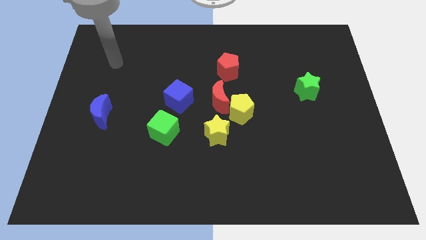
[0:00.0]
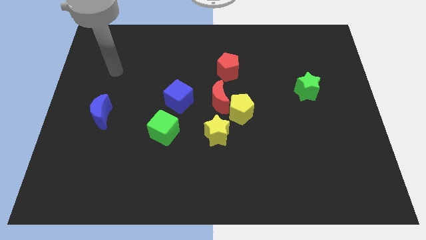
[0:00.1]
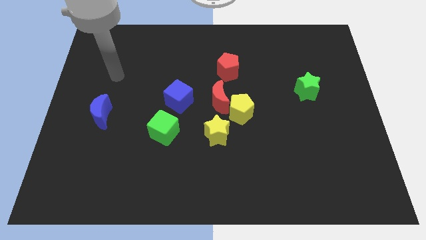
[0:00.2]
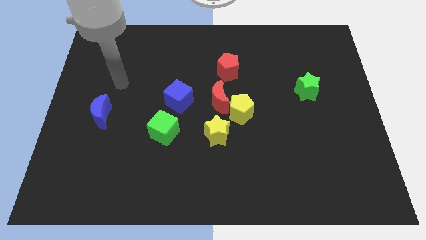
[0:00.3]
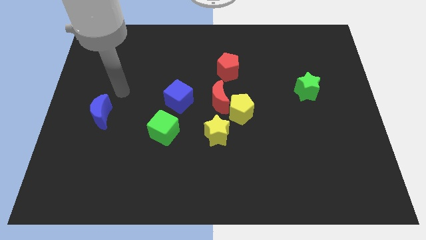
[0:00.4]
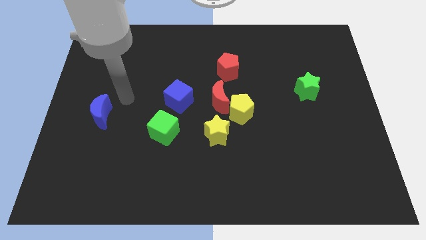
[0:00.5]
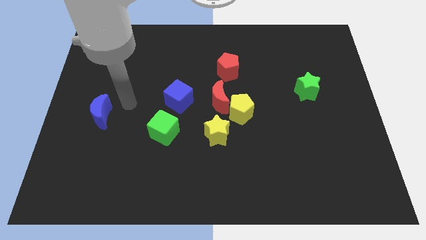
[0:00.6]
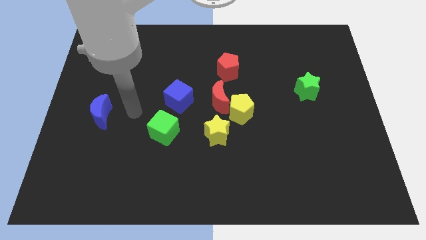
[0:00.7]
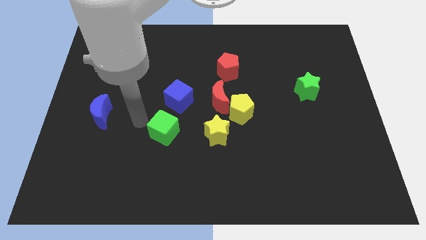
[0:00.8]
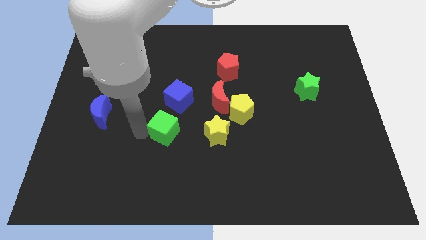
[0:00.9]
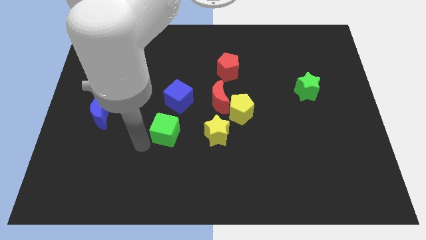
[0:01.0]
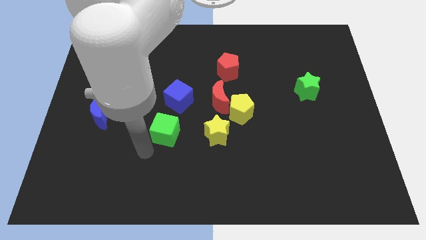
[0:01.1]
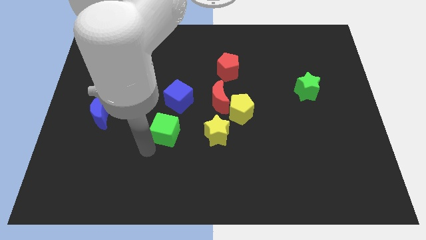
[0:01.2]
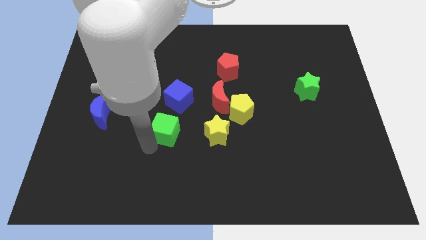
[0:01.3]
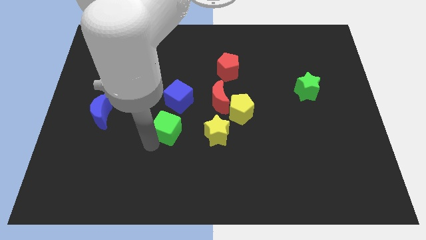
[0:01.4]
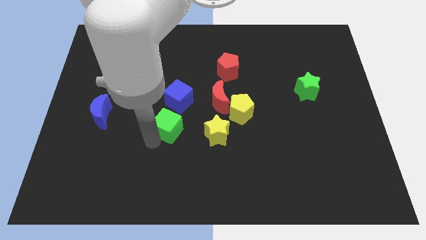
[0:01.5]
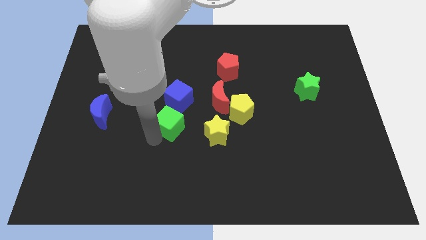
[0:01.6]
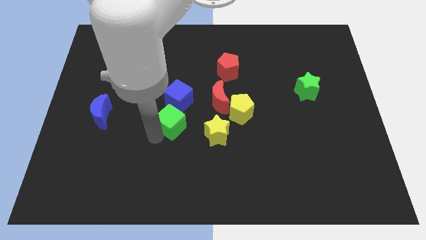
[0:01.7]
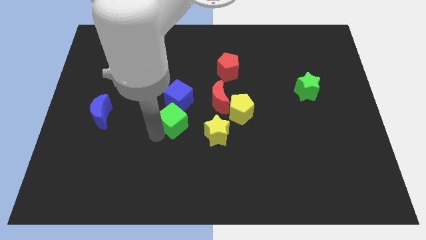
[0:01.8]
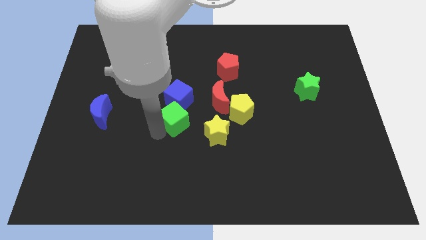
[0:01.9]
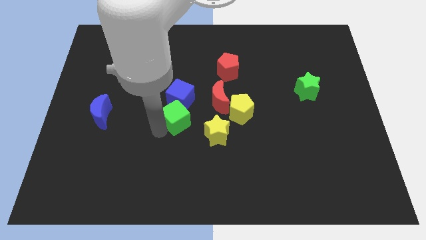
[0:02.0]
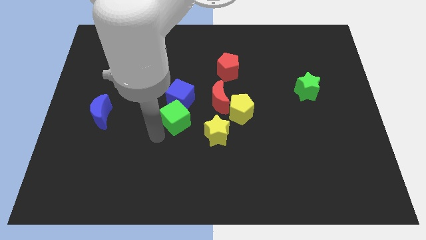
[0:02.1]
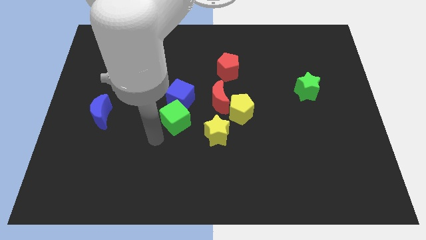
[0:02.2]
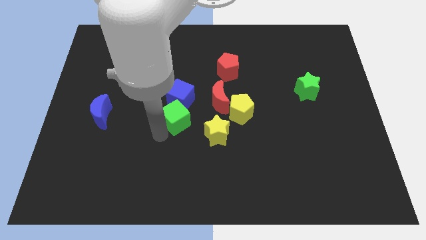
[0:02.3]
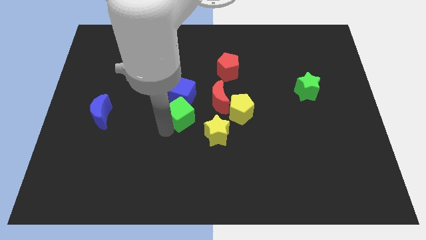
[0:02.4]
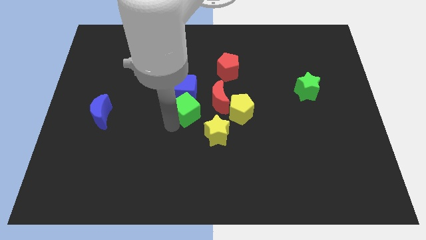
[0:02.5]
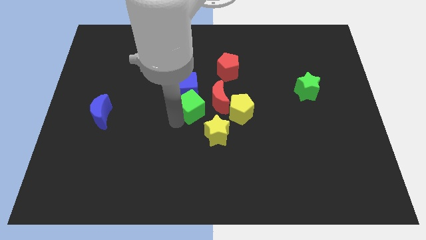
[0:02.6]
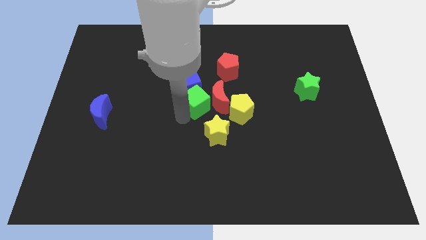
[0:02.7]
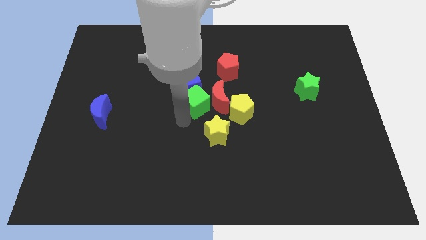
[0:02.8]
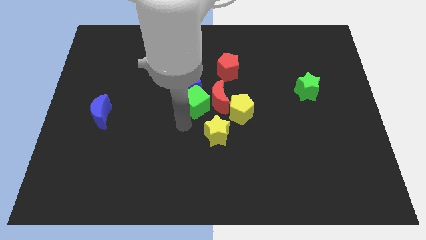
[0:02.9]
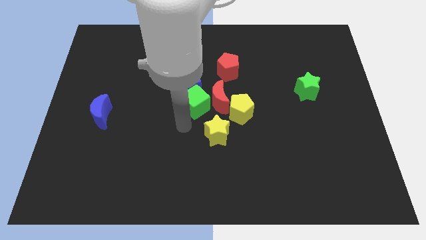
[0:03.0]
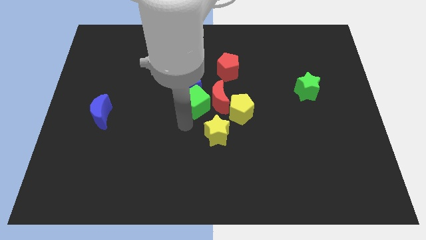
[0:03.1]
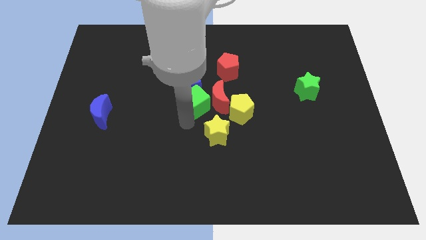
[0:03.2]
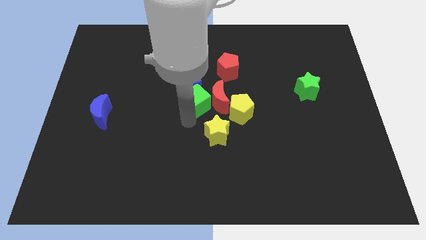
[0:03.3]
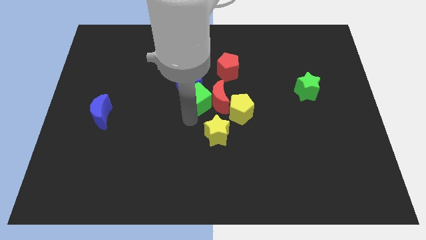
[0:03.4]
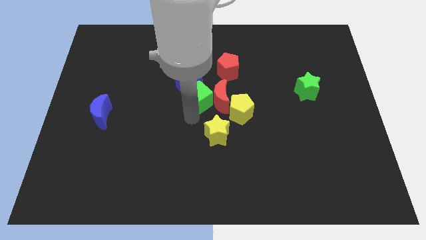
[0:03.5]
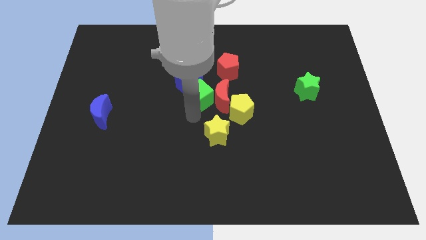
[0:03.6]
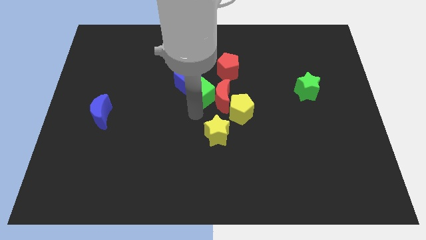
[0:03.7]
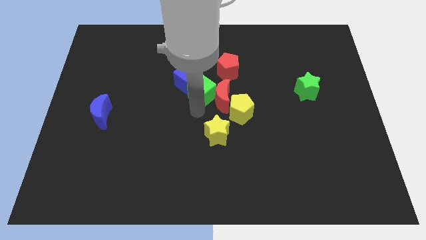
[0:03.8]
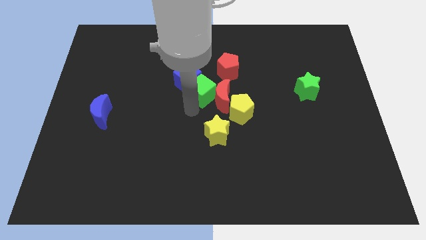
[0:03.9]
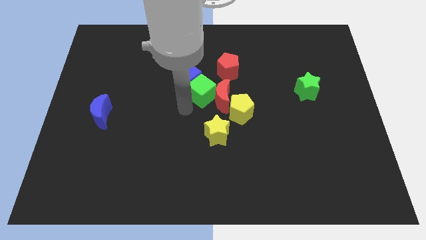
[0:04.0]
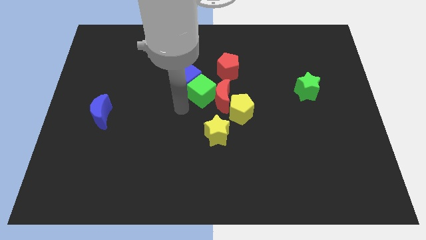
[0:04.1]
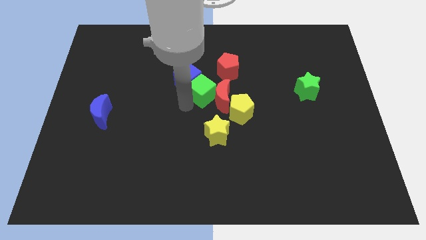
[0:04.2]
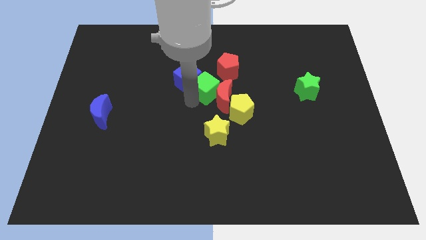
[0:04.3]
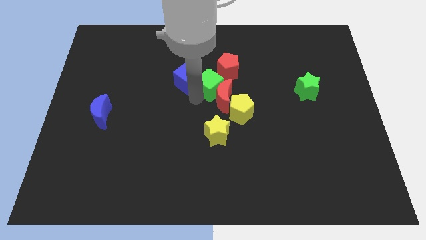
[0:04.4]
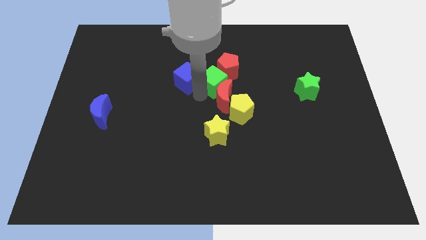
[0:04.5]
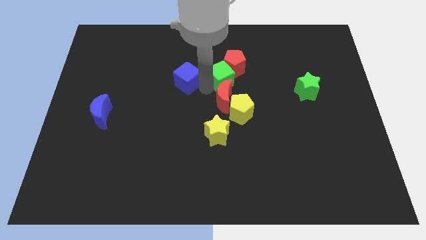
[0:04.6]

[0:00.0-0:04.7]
move the green cube upwards and to the right

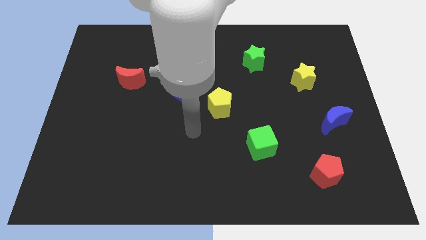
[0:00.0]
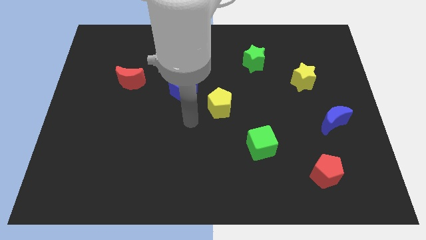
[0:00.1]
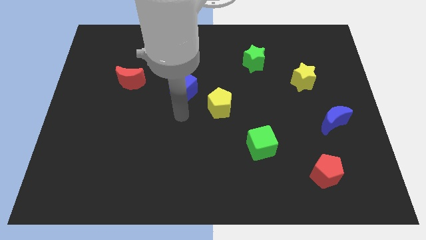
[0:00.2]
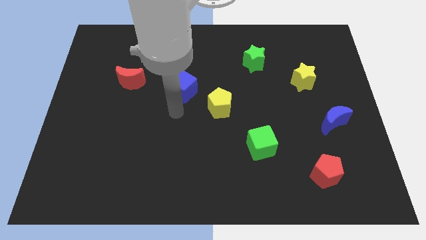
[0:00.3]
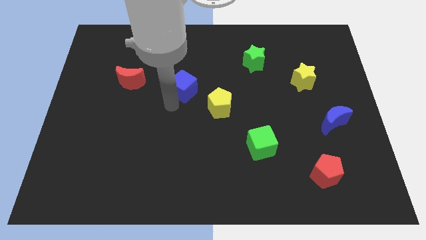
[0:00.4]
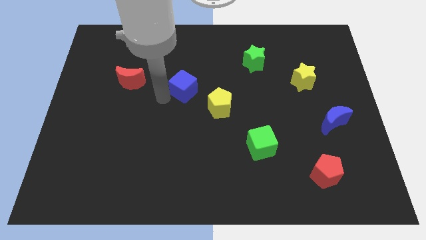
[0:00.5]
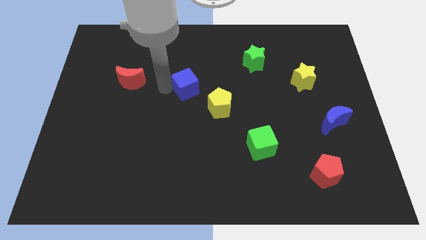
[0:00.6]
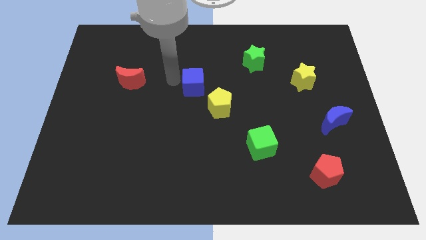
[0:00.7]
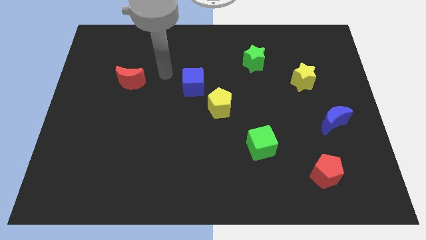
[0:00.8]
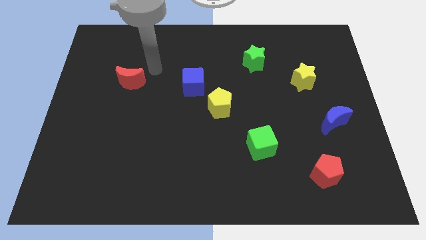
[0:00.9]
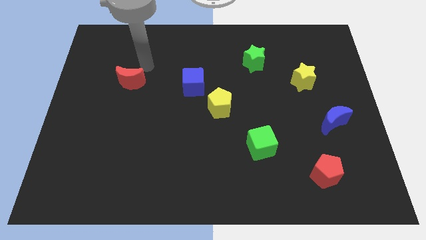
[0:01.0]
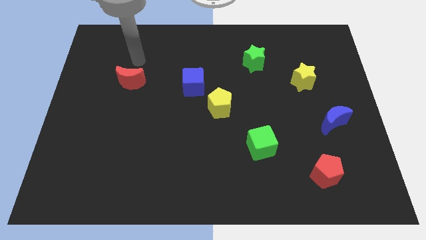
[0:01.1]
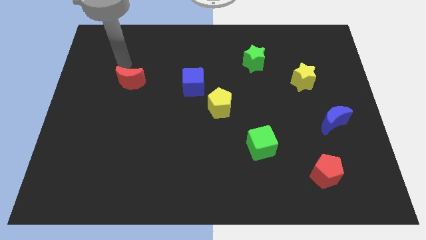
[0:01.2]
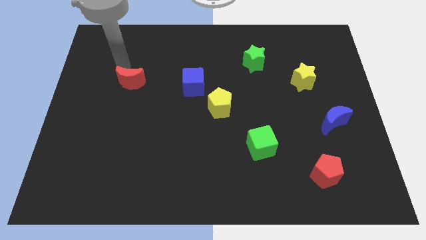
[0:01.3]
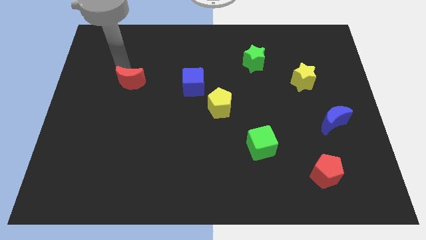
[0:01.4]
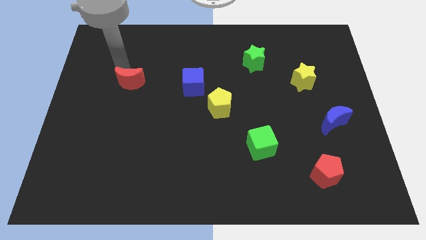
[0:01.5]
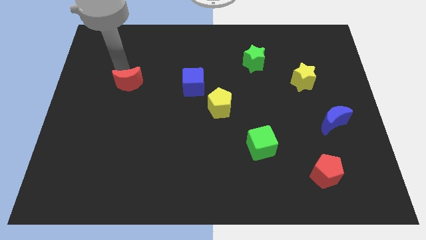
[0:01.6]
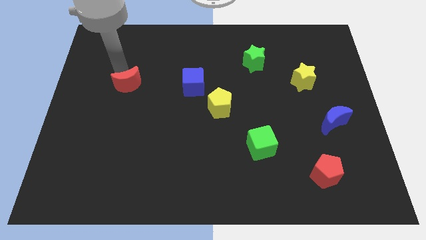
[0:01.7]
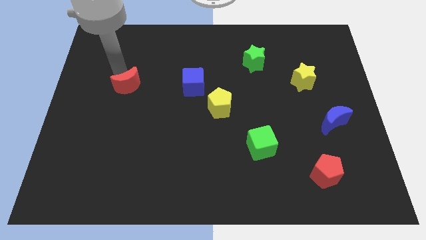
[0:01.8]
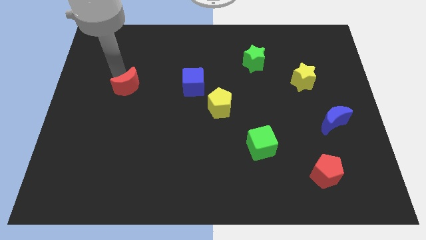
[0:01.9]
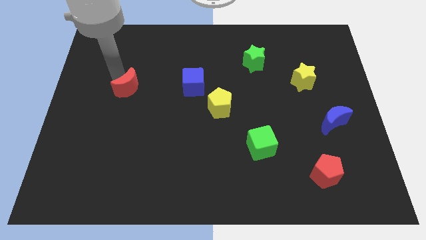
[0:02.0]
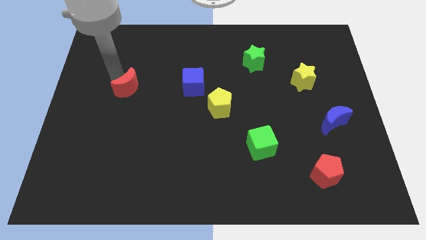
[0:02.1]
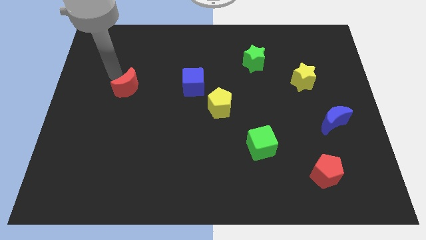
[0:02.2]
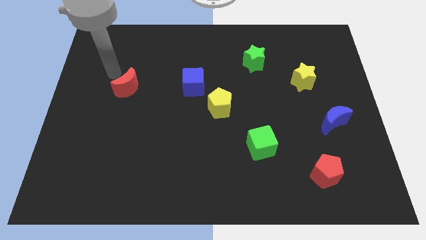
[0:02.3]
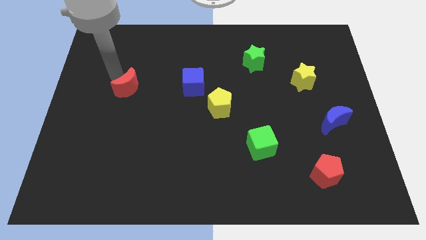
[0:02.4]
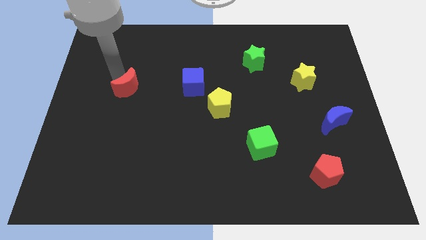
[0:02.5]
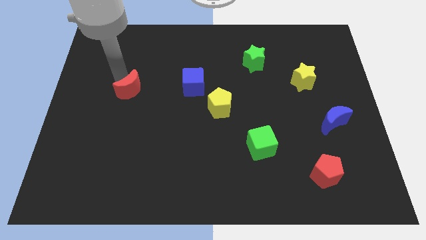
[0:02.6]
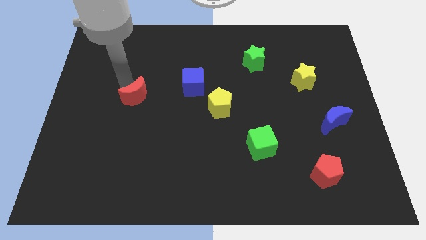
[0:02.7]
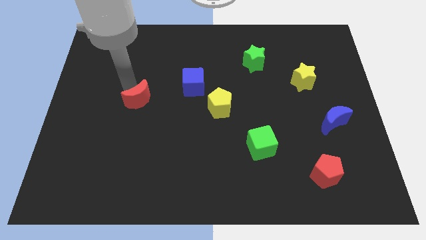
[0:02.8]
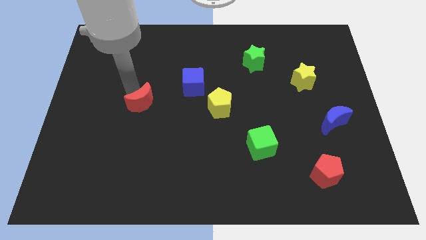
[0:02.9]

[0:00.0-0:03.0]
slide the red moon somewhat down and to the right

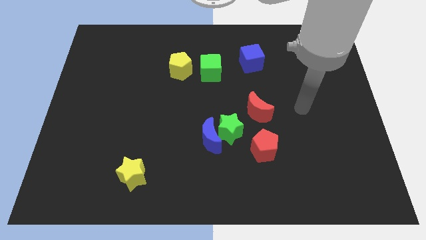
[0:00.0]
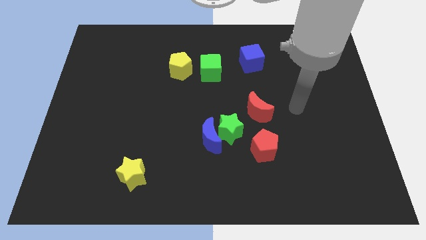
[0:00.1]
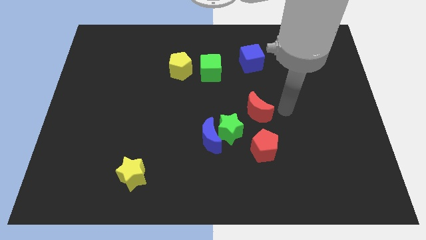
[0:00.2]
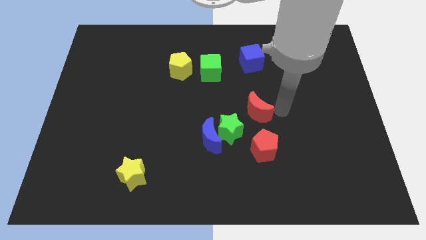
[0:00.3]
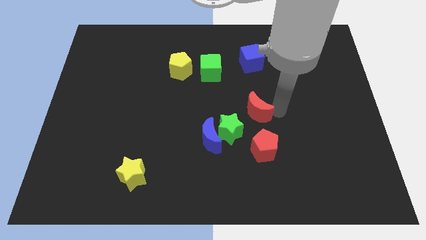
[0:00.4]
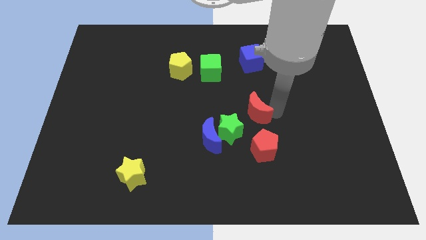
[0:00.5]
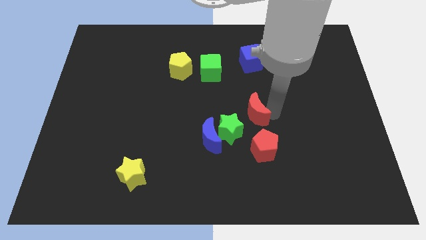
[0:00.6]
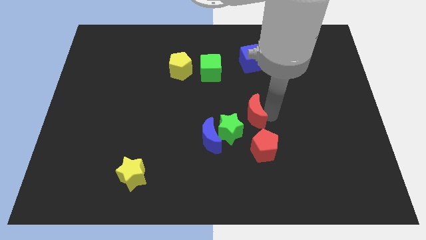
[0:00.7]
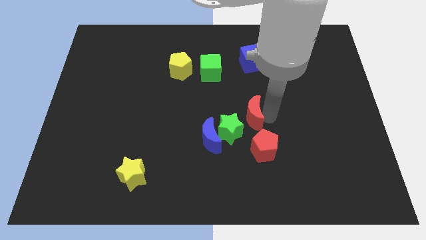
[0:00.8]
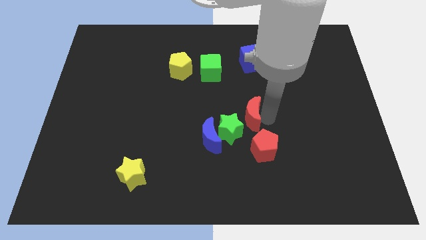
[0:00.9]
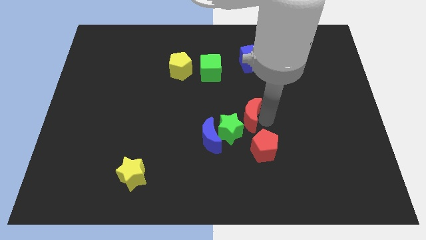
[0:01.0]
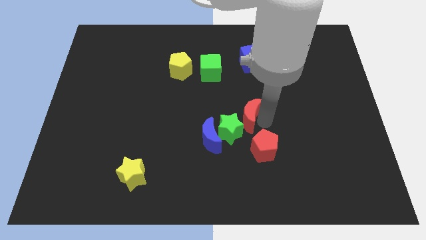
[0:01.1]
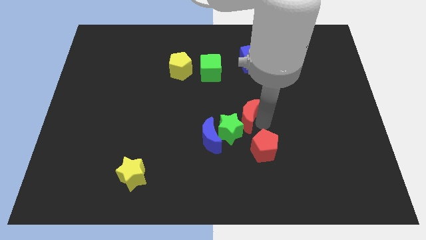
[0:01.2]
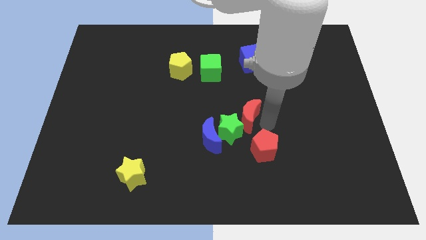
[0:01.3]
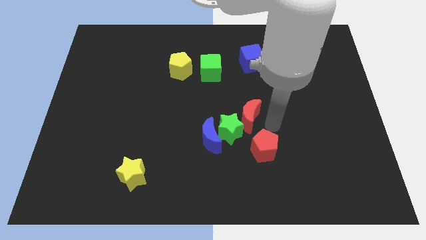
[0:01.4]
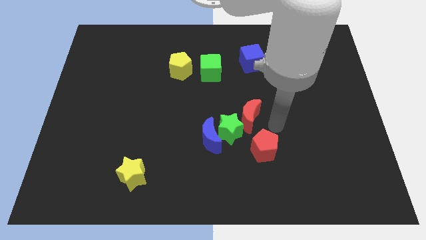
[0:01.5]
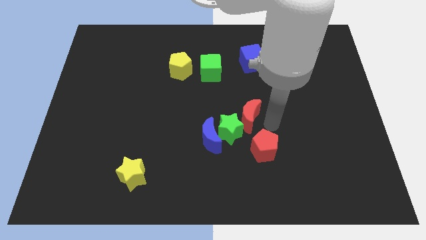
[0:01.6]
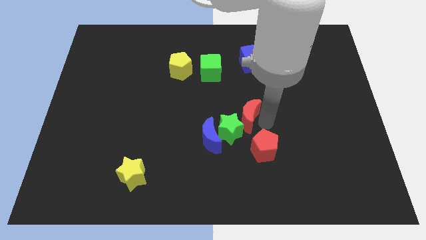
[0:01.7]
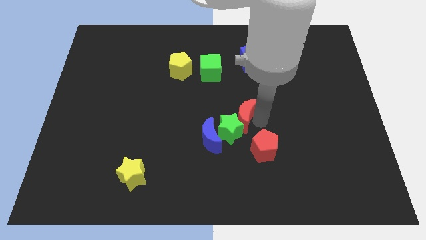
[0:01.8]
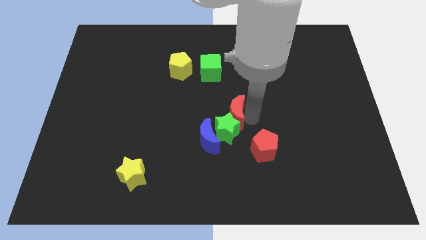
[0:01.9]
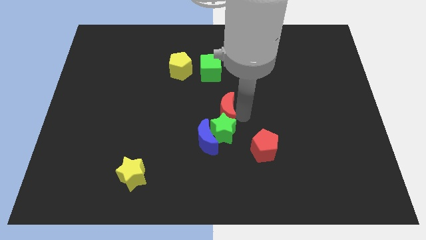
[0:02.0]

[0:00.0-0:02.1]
slightly slide the red moon left
